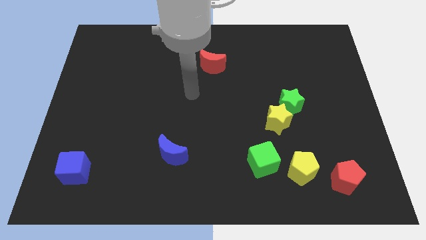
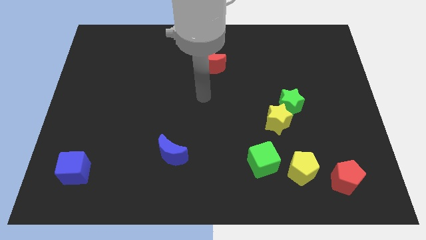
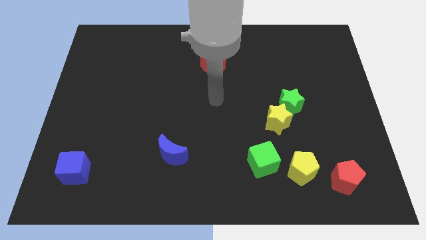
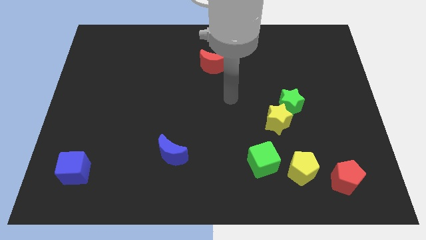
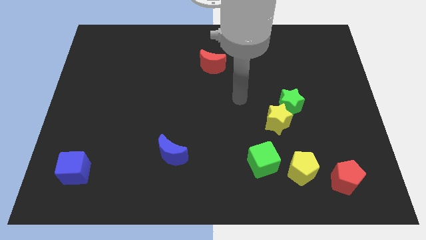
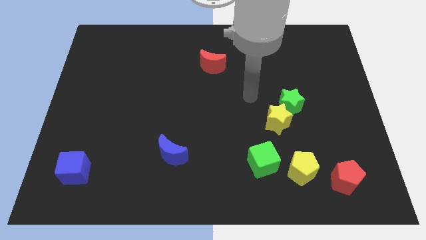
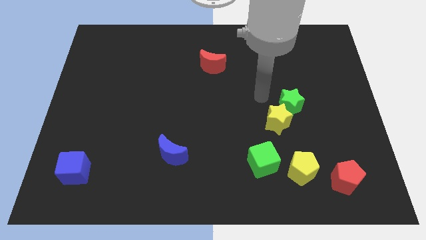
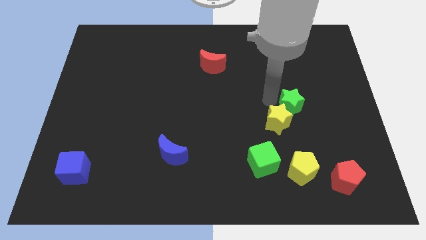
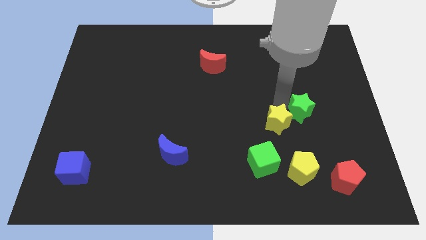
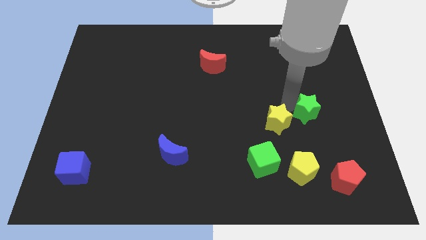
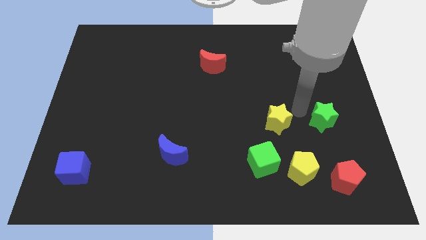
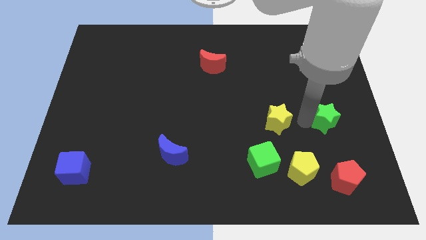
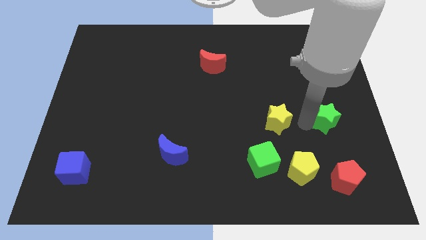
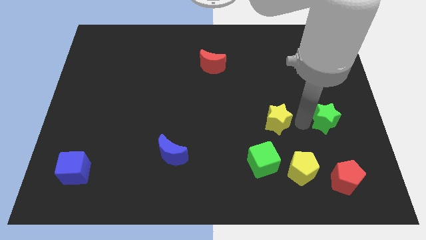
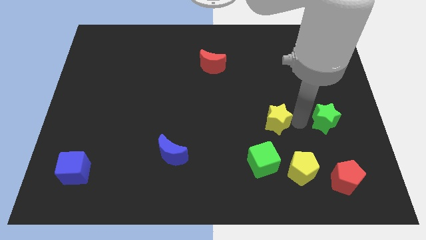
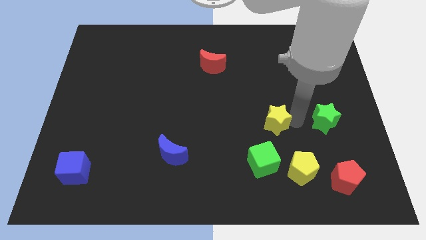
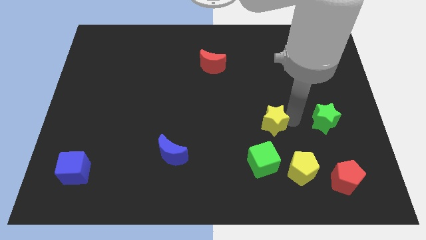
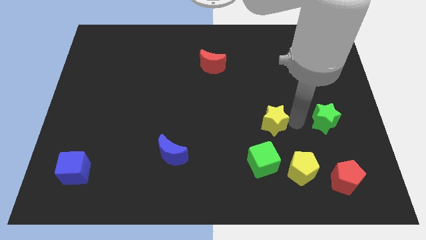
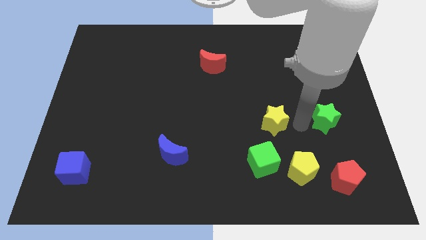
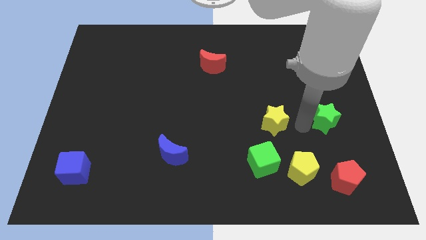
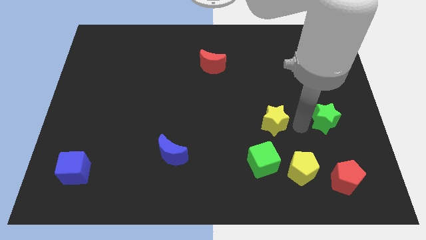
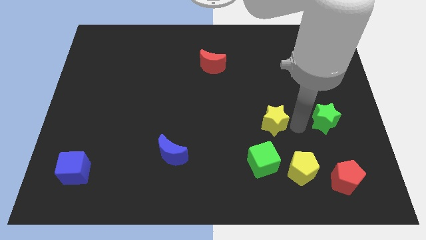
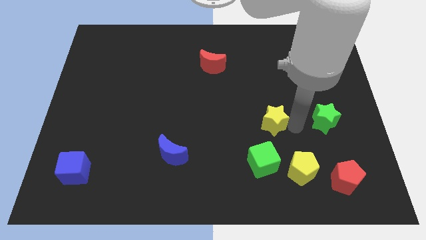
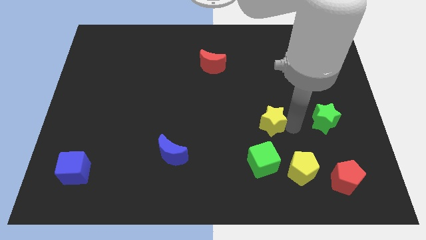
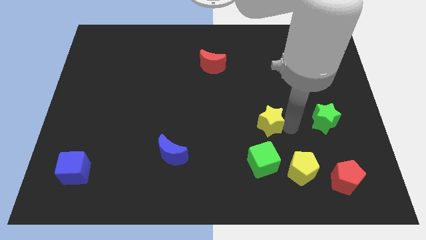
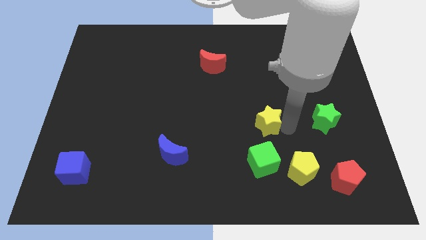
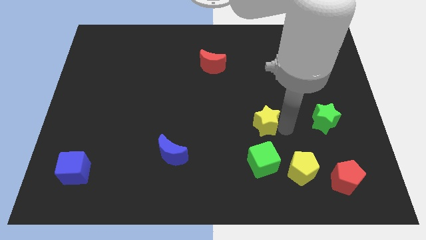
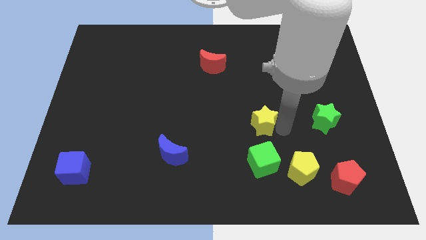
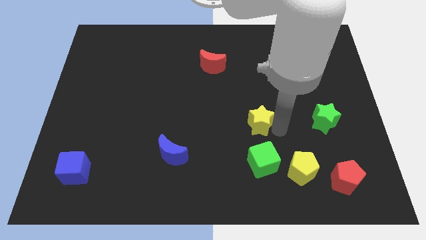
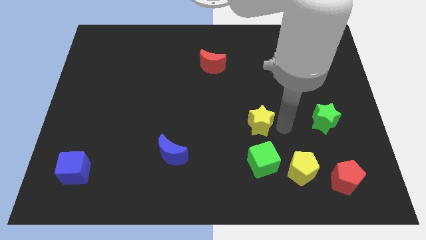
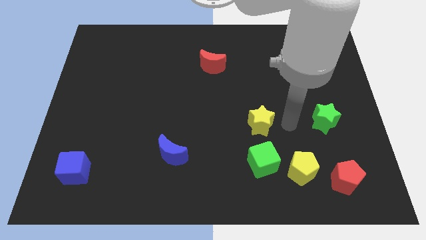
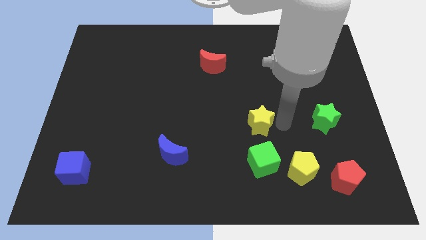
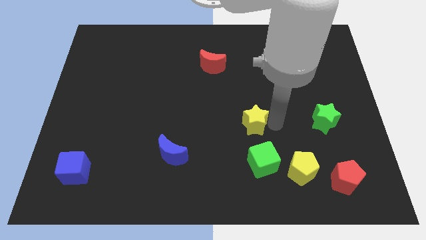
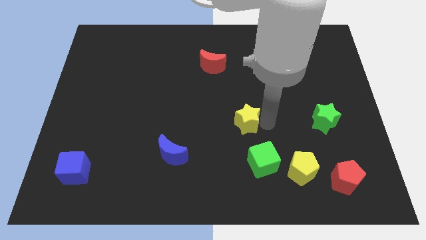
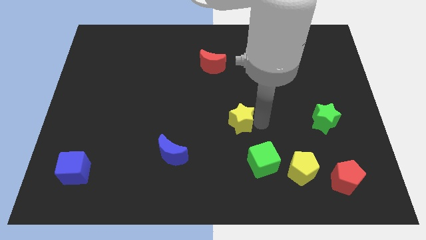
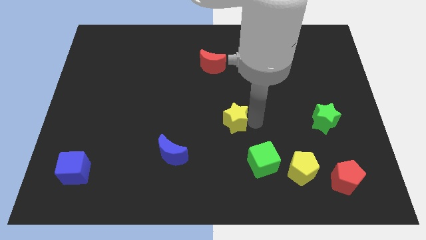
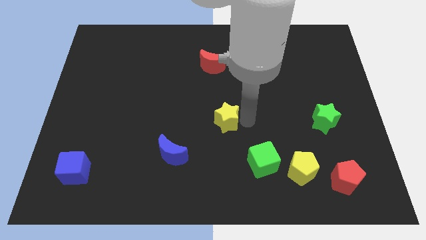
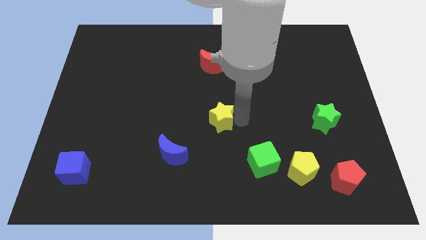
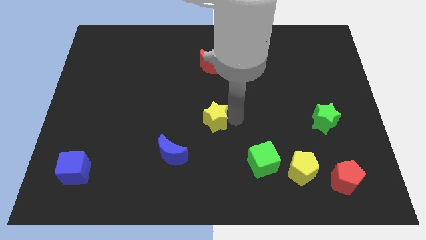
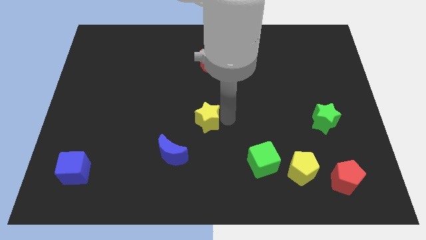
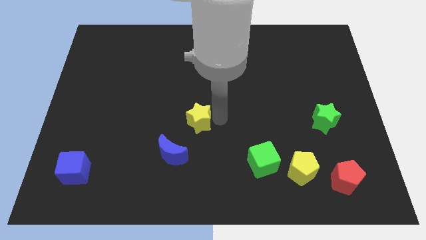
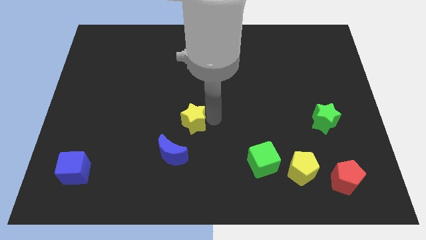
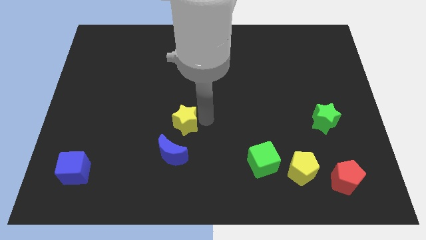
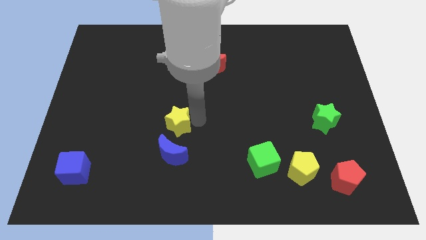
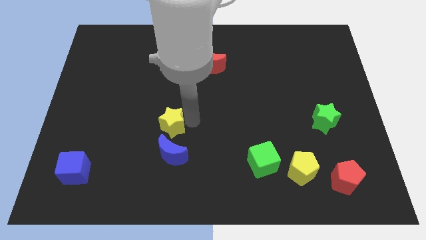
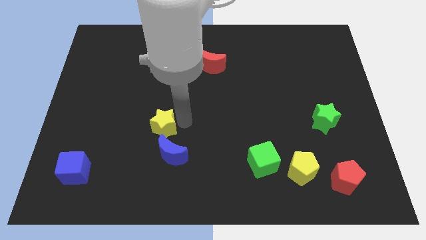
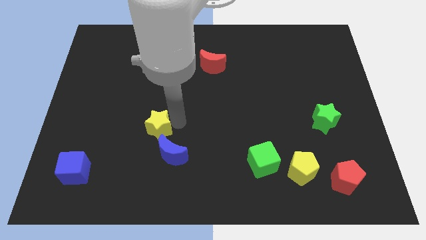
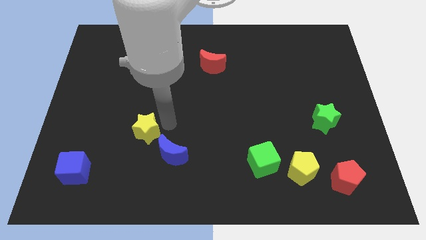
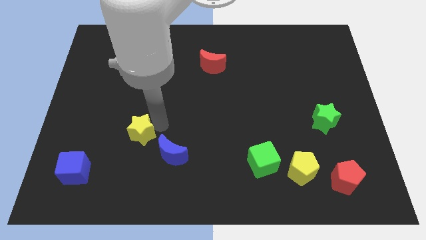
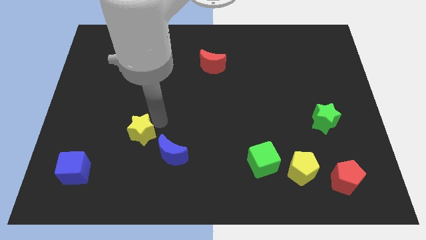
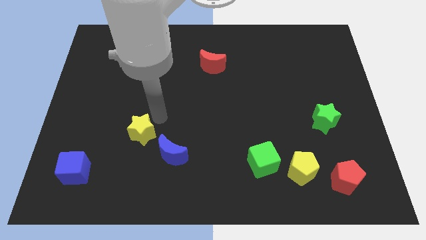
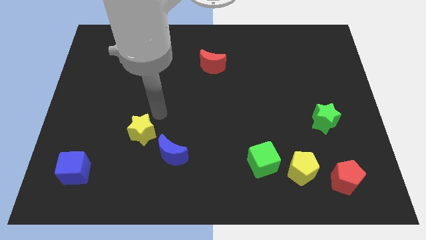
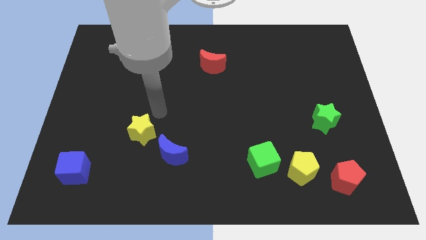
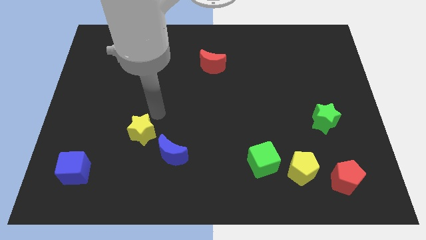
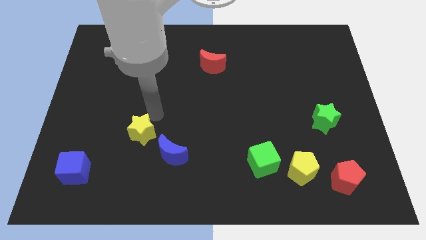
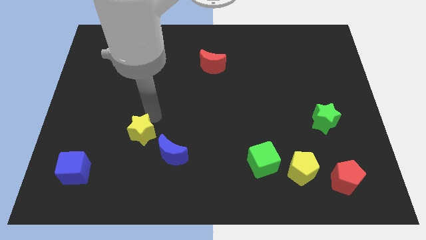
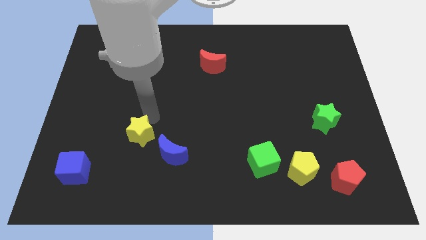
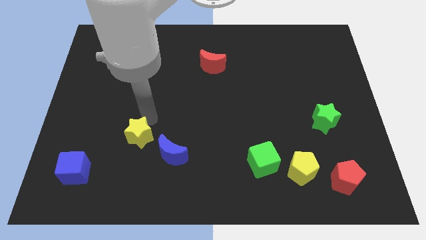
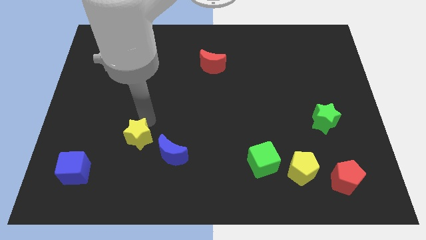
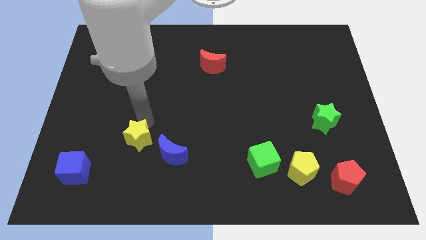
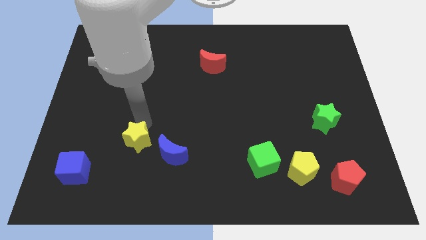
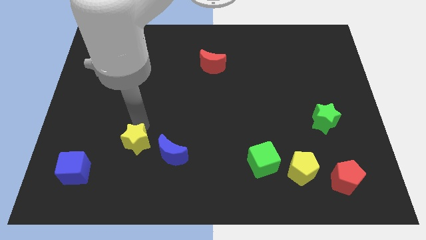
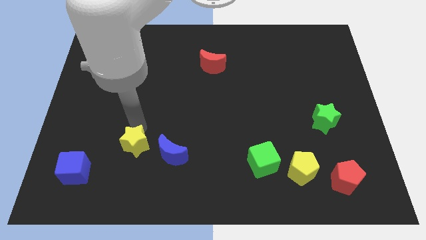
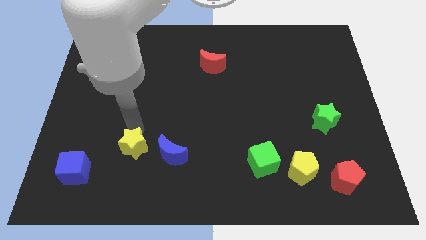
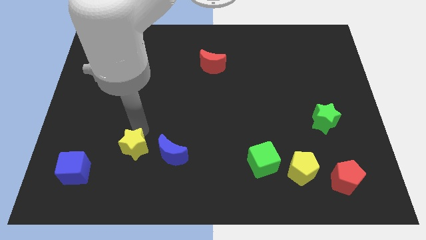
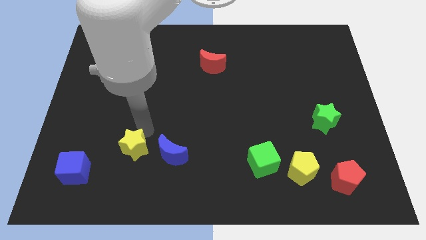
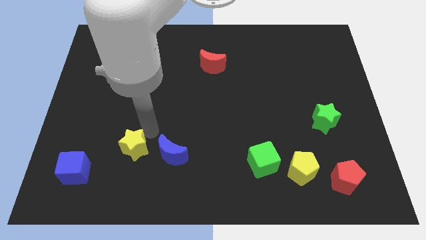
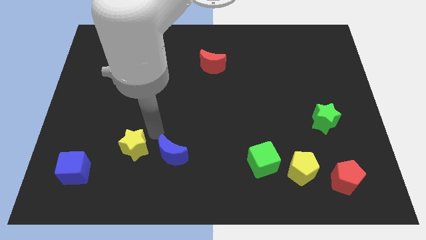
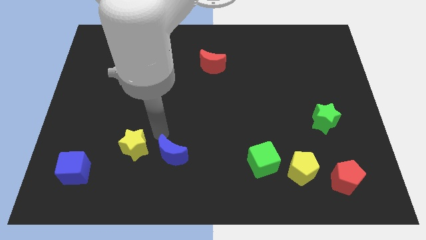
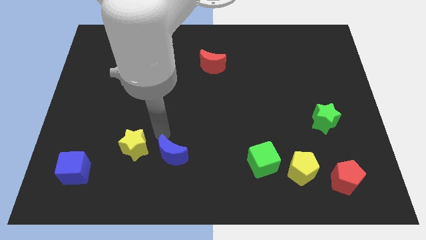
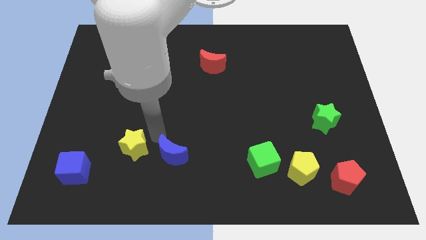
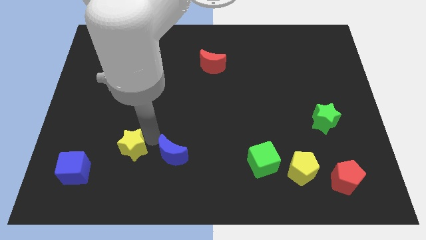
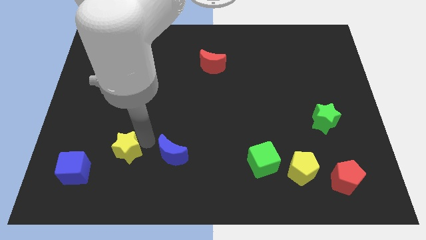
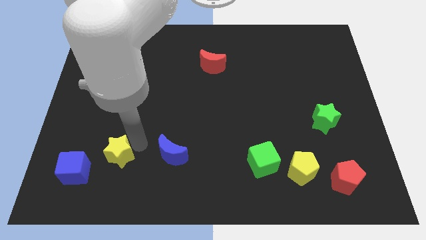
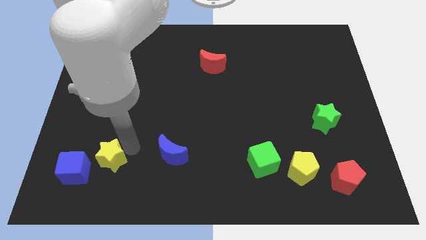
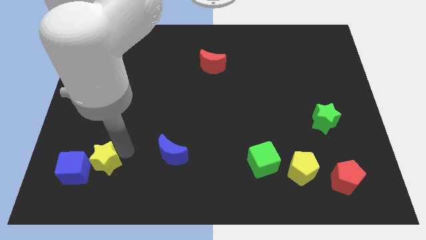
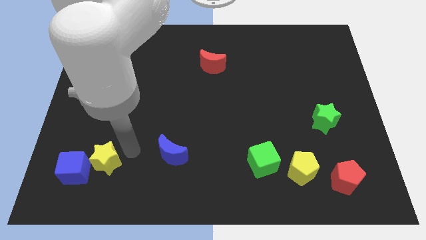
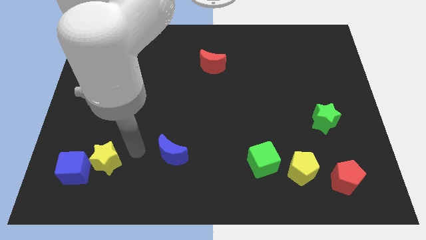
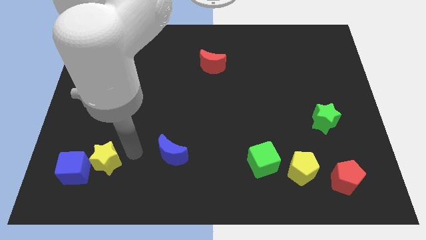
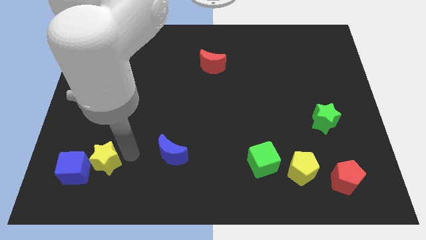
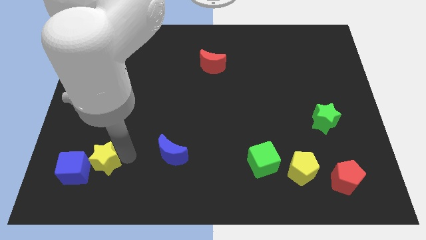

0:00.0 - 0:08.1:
move the yellow star next to the blue cube

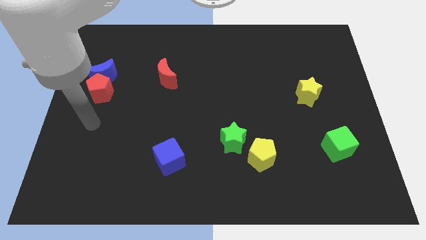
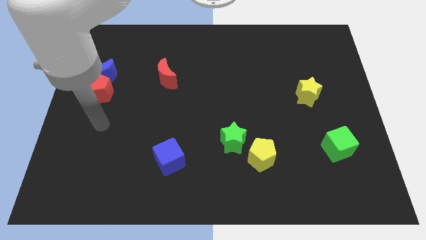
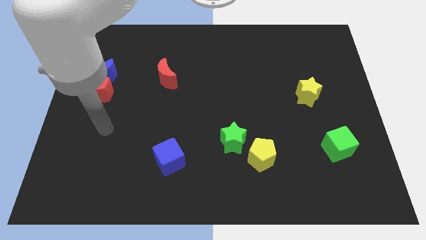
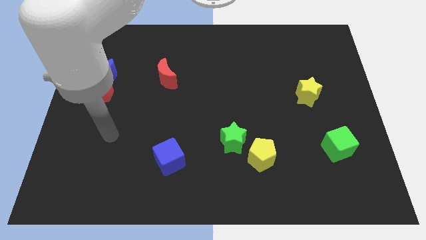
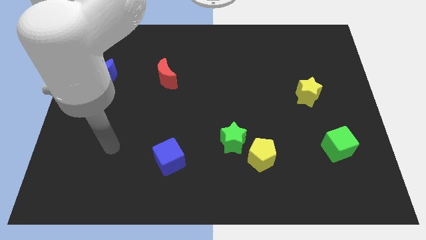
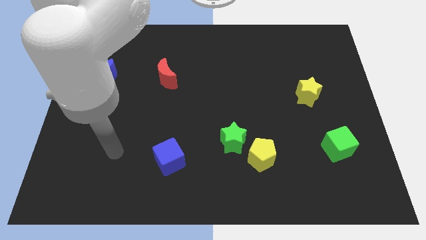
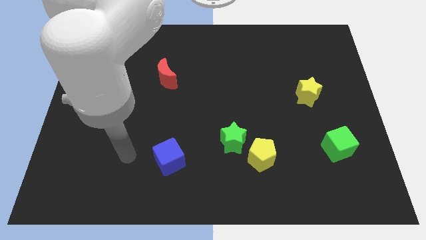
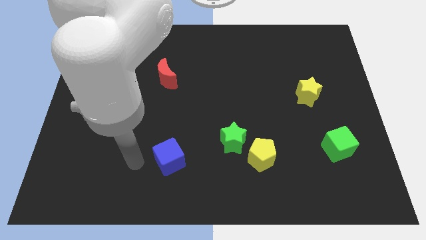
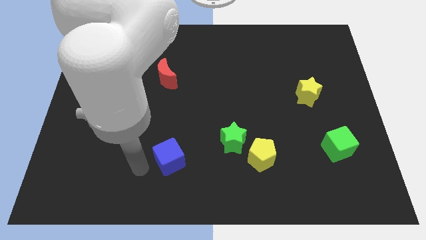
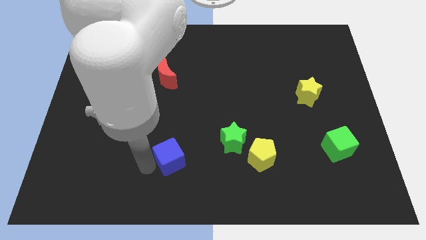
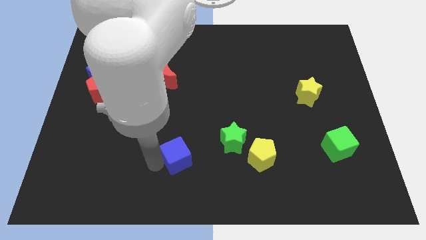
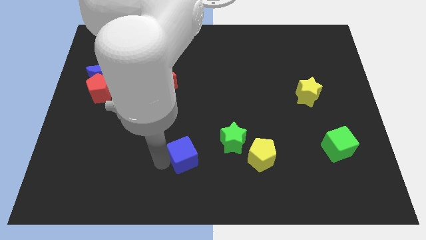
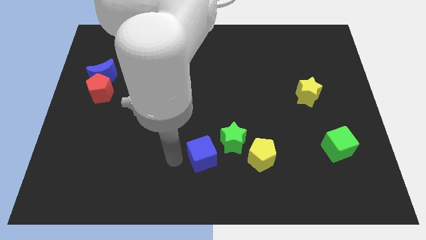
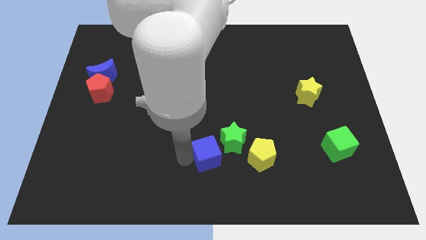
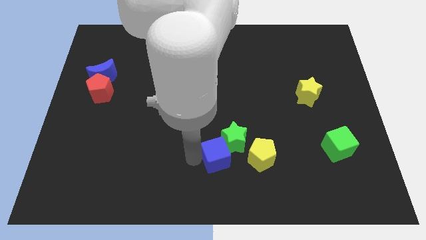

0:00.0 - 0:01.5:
move the blue cube close to the green star
